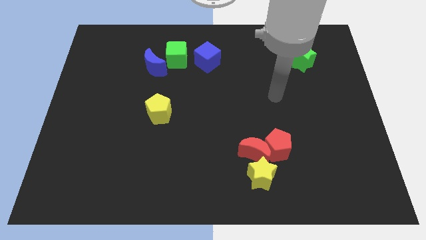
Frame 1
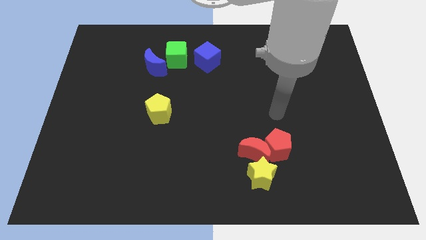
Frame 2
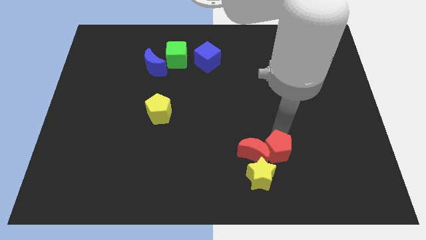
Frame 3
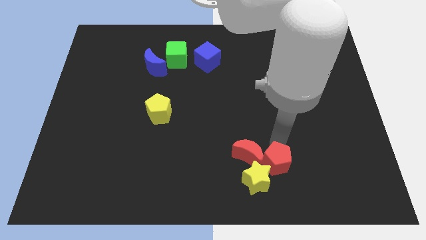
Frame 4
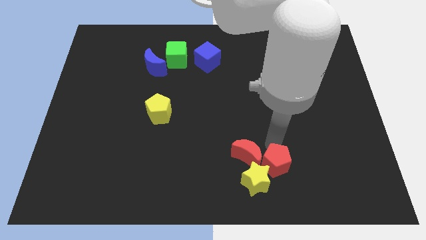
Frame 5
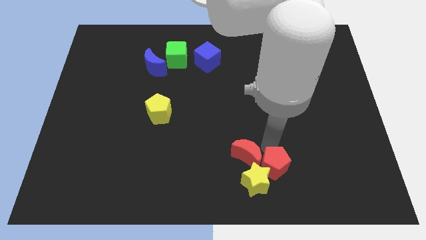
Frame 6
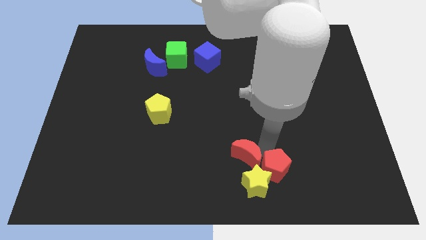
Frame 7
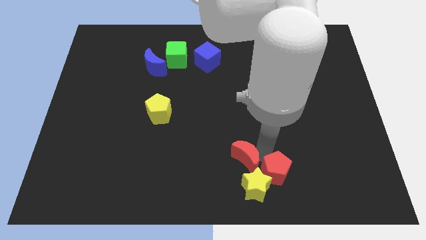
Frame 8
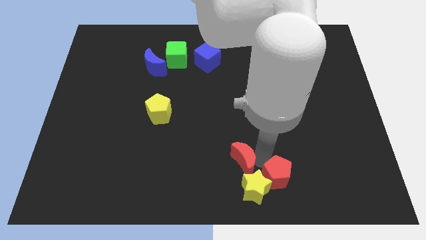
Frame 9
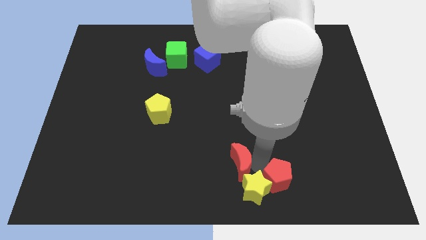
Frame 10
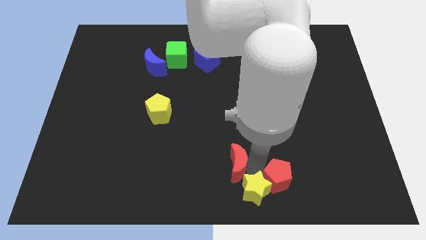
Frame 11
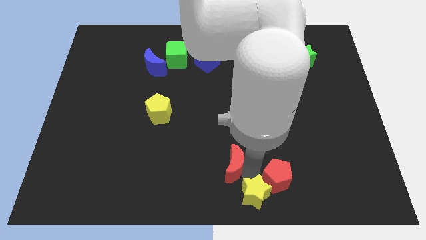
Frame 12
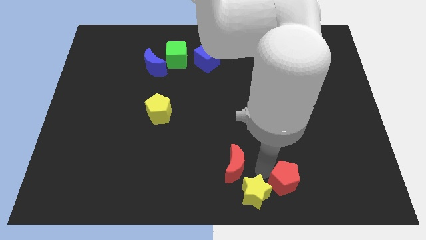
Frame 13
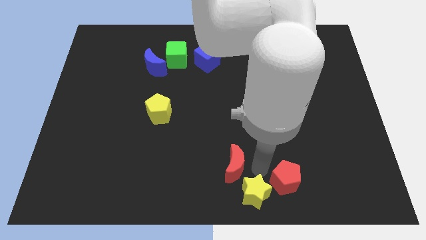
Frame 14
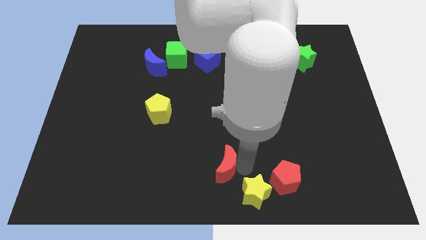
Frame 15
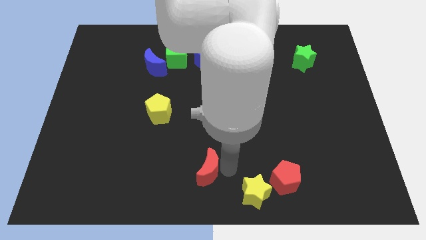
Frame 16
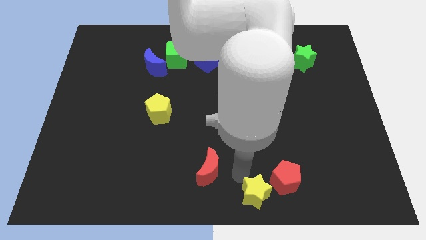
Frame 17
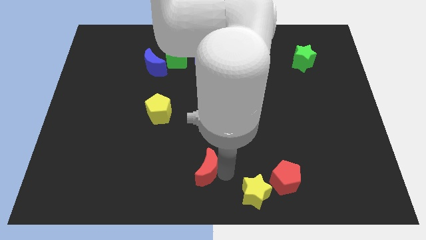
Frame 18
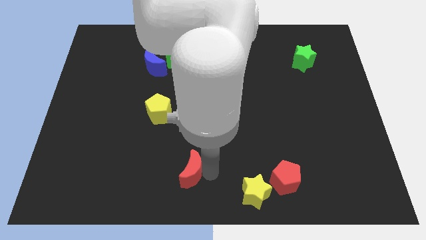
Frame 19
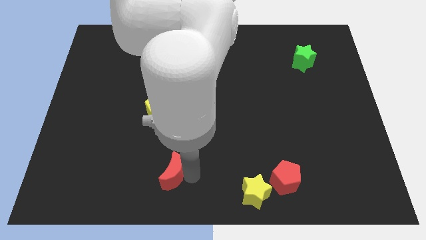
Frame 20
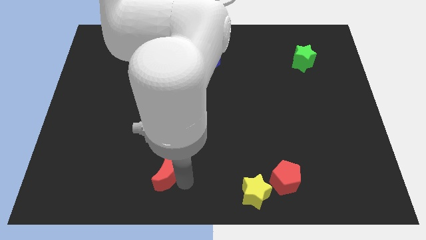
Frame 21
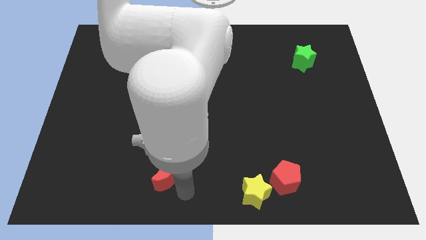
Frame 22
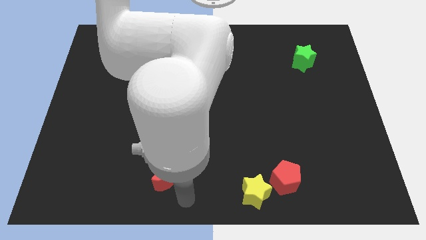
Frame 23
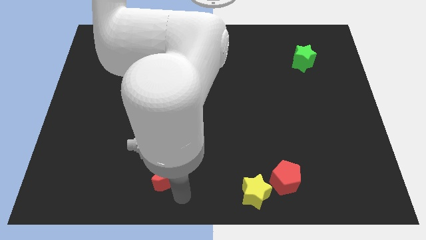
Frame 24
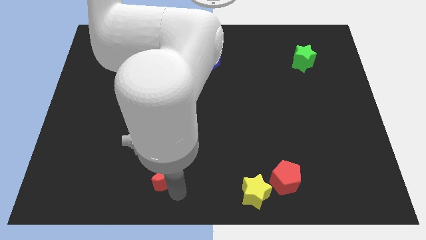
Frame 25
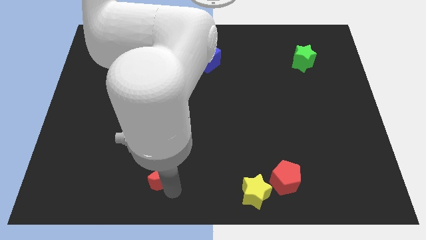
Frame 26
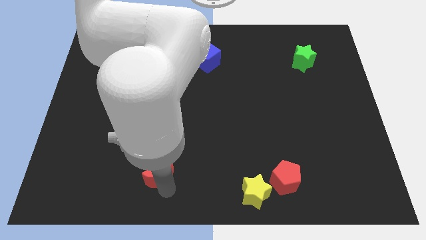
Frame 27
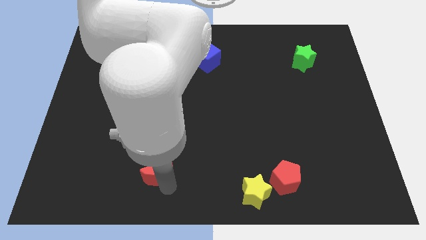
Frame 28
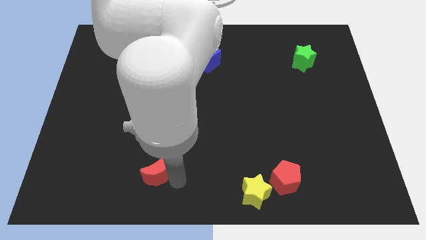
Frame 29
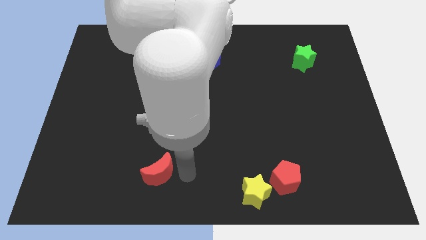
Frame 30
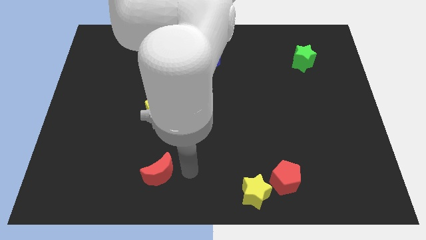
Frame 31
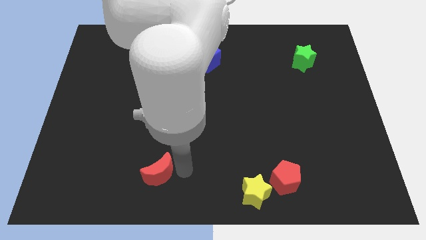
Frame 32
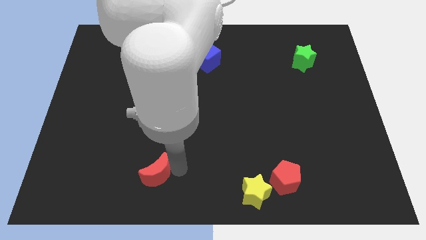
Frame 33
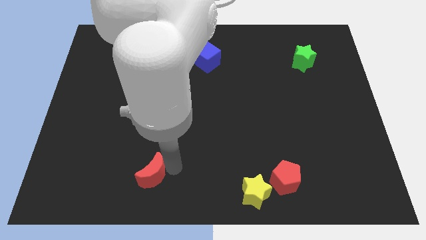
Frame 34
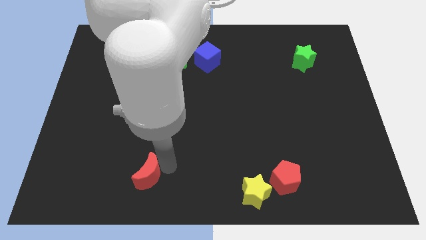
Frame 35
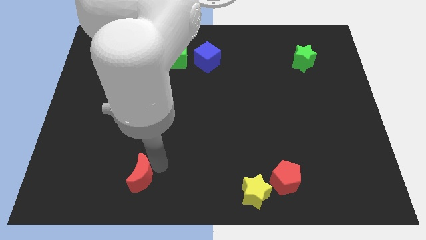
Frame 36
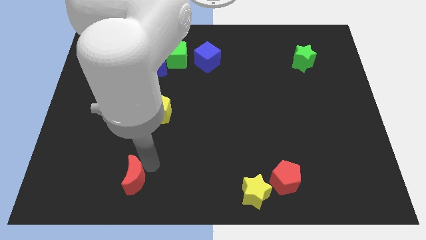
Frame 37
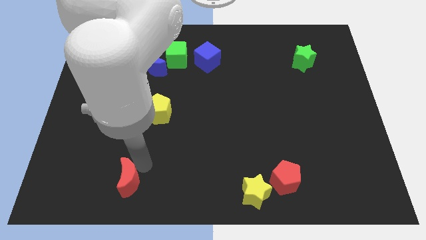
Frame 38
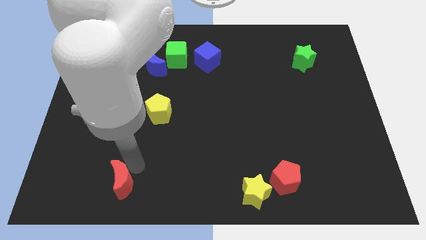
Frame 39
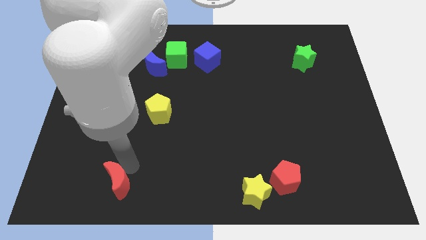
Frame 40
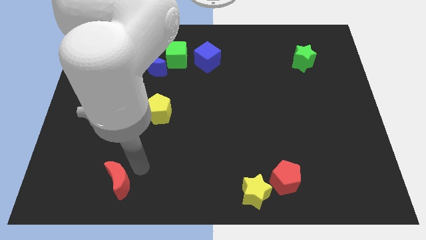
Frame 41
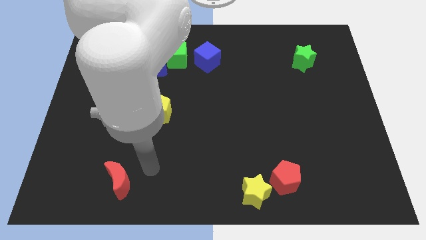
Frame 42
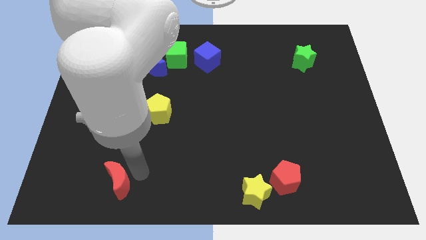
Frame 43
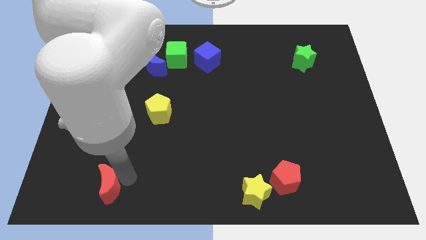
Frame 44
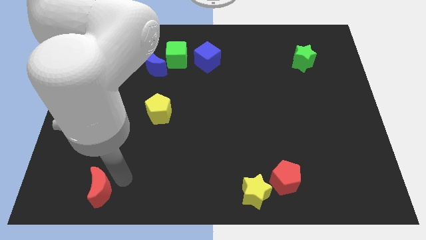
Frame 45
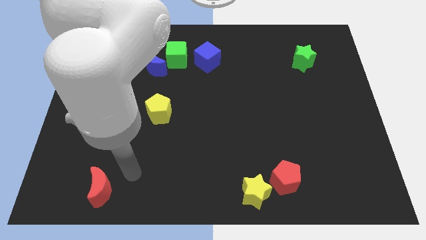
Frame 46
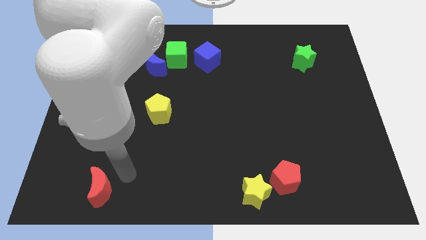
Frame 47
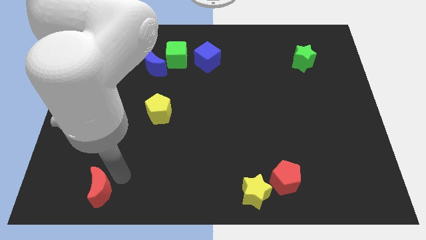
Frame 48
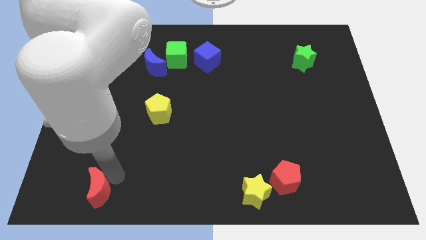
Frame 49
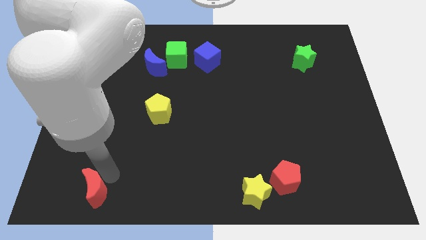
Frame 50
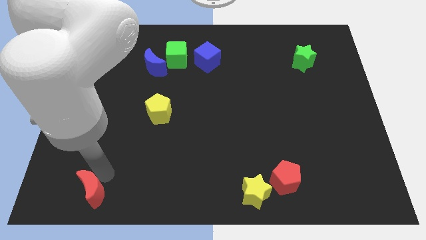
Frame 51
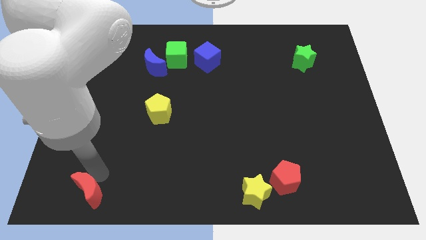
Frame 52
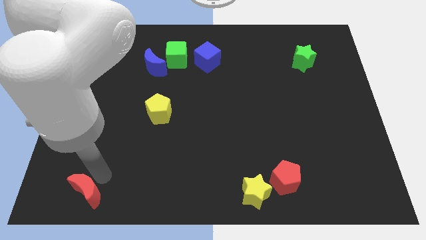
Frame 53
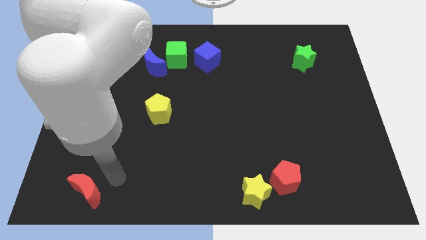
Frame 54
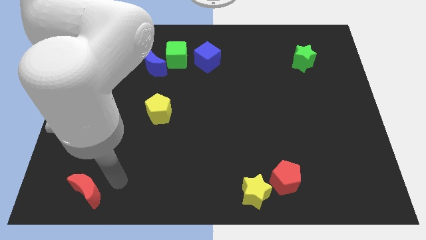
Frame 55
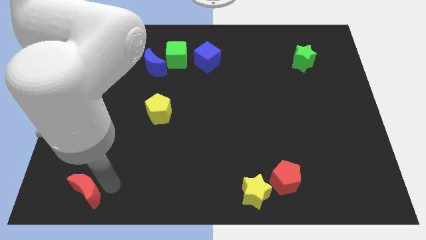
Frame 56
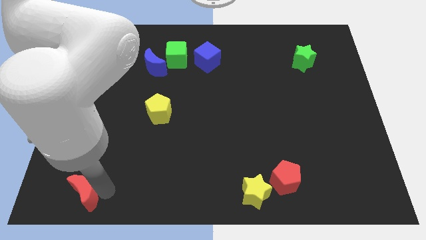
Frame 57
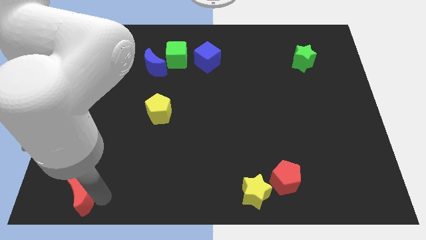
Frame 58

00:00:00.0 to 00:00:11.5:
slide the red moon to the lower left corner
